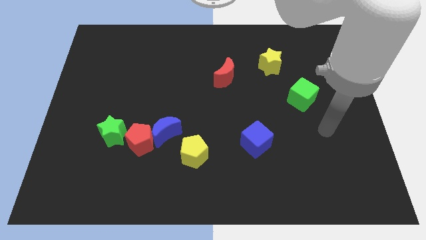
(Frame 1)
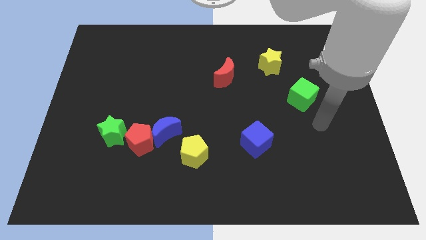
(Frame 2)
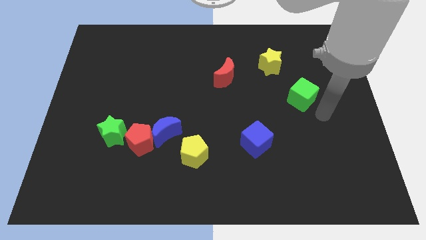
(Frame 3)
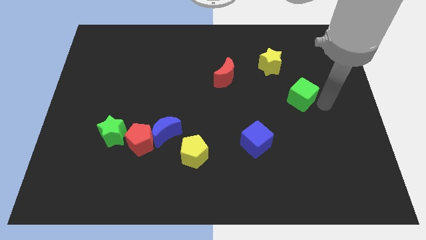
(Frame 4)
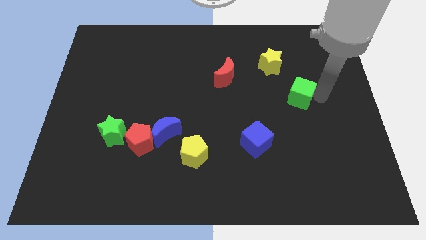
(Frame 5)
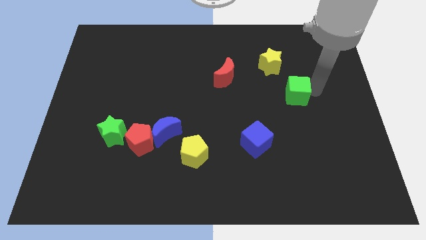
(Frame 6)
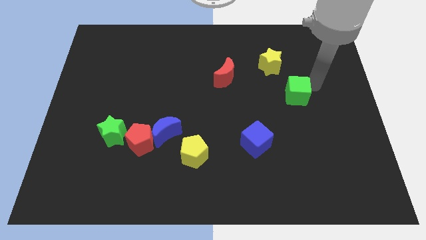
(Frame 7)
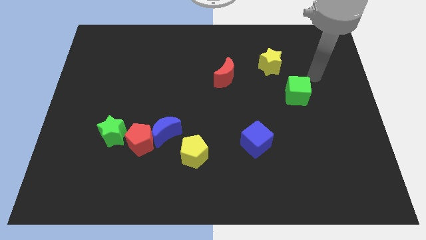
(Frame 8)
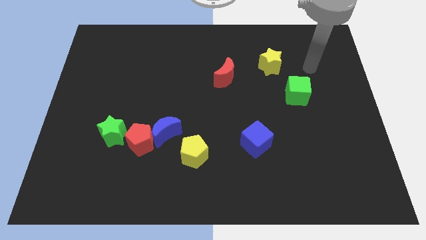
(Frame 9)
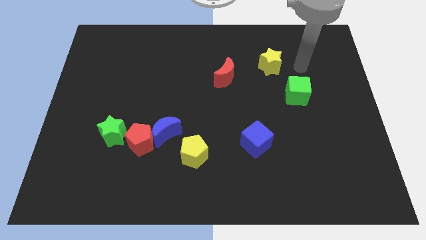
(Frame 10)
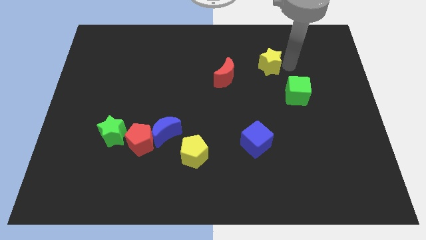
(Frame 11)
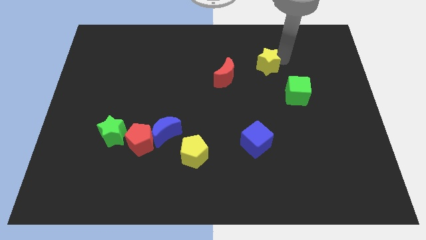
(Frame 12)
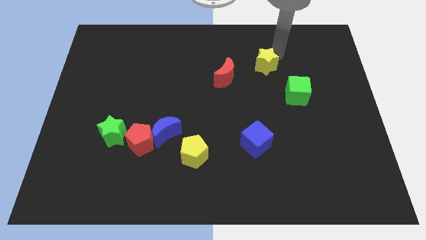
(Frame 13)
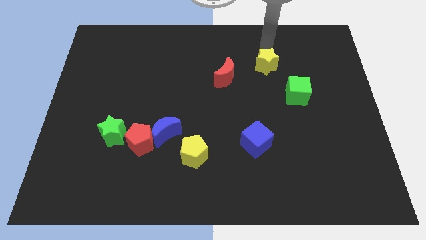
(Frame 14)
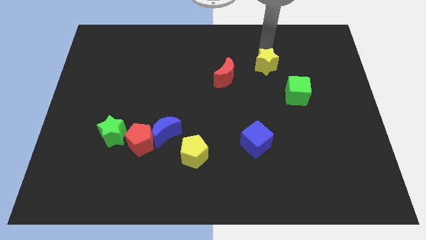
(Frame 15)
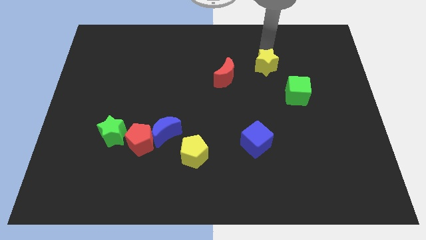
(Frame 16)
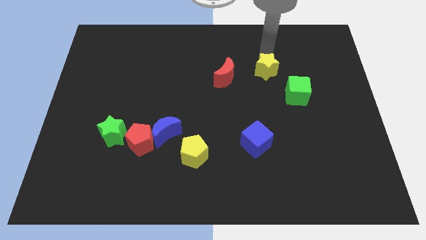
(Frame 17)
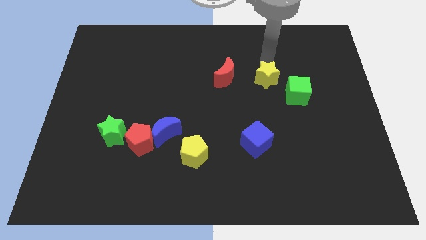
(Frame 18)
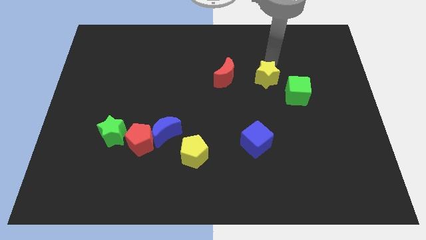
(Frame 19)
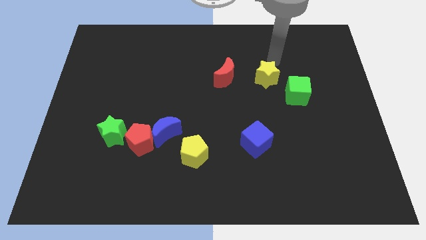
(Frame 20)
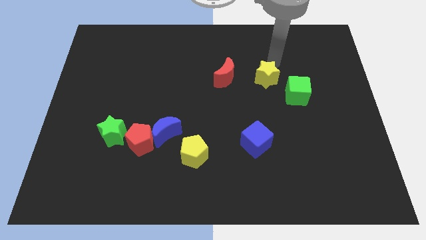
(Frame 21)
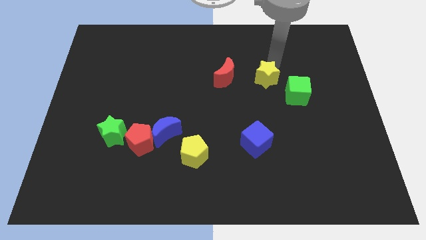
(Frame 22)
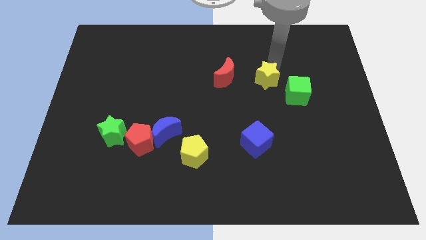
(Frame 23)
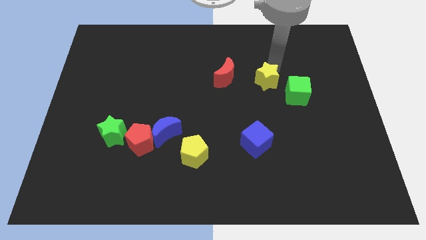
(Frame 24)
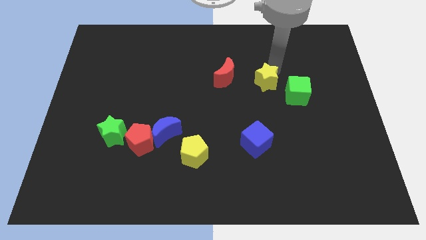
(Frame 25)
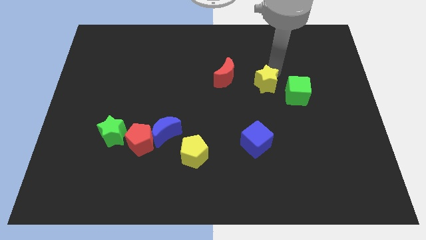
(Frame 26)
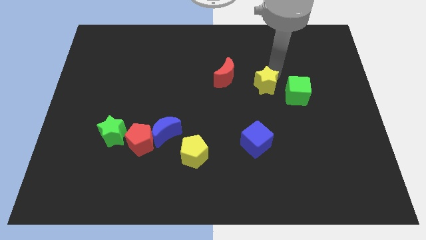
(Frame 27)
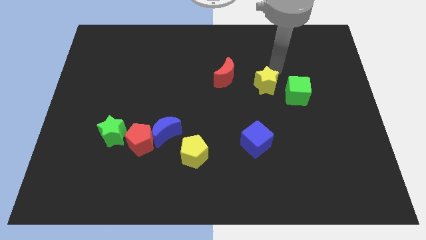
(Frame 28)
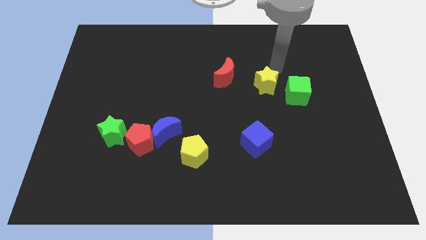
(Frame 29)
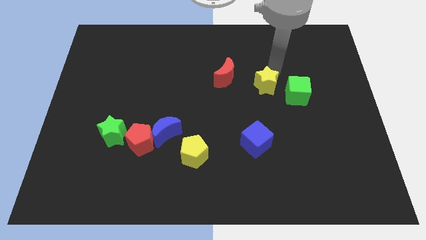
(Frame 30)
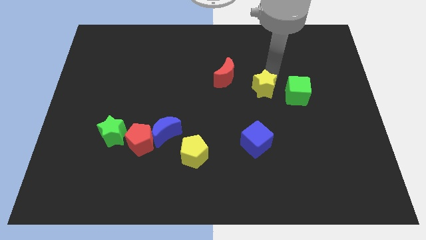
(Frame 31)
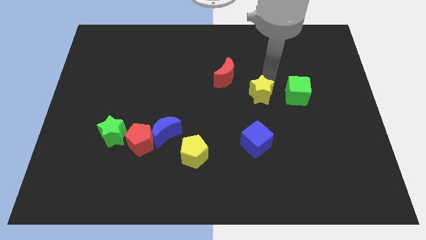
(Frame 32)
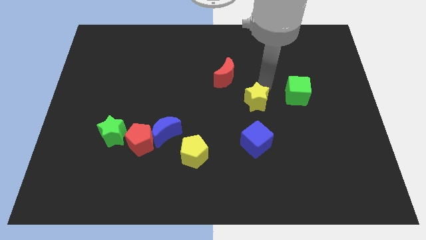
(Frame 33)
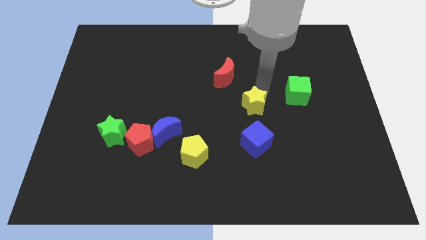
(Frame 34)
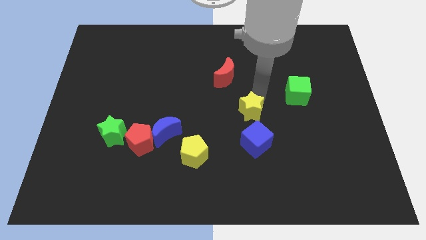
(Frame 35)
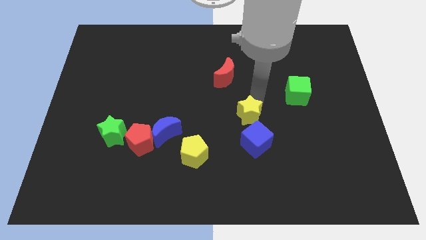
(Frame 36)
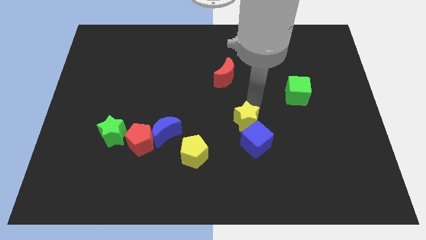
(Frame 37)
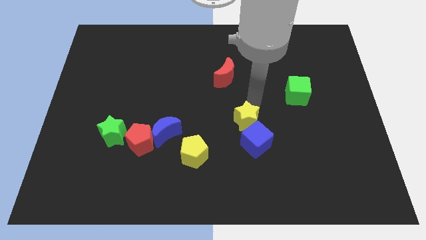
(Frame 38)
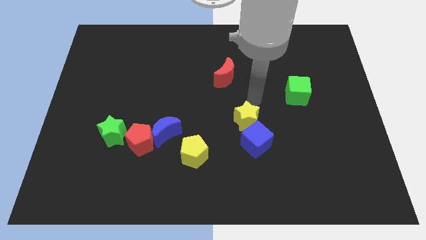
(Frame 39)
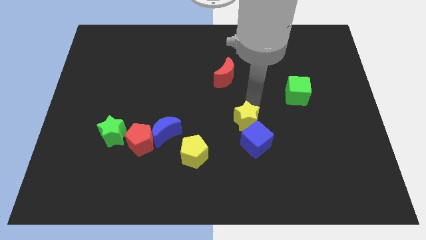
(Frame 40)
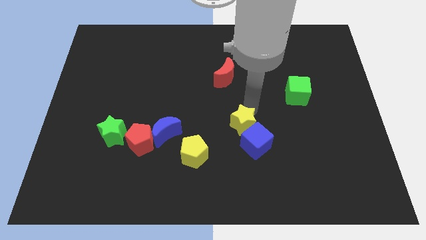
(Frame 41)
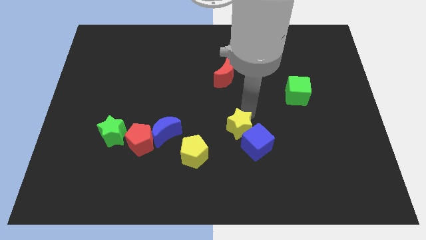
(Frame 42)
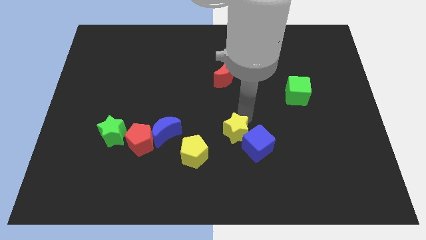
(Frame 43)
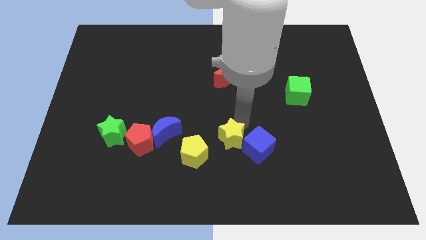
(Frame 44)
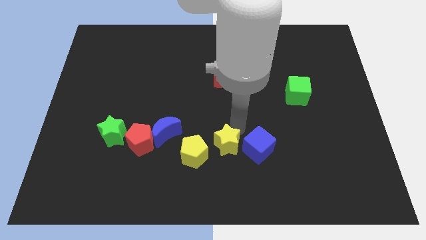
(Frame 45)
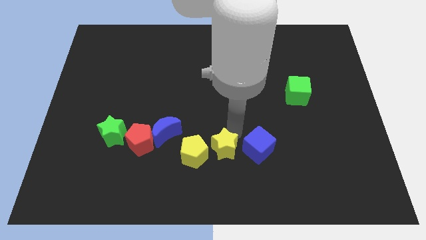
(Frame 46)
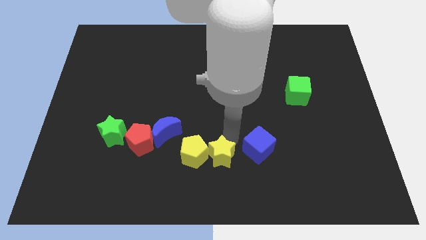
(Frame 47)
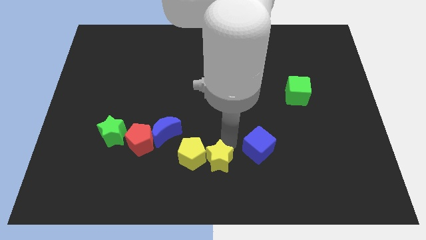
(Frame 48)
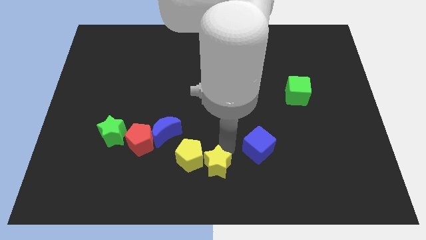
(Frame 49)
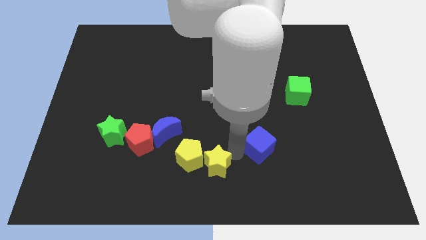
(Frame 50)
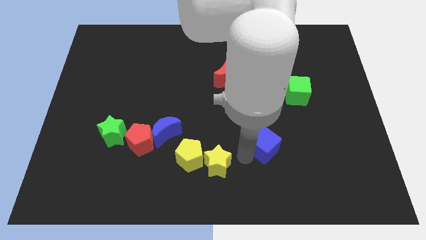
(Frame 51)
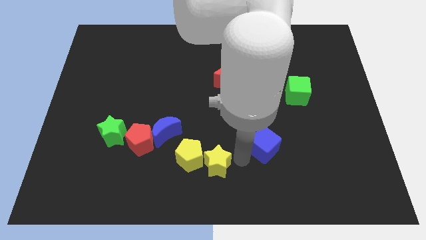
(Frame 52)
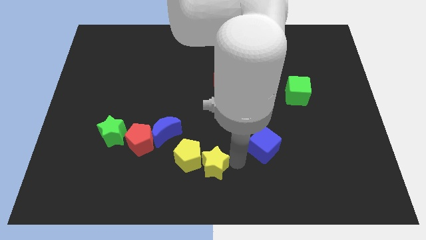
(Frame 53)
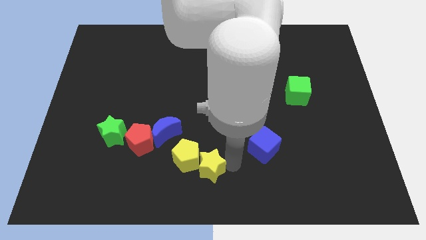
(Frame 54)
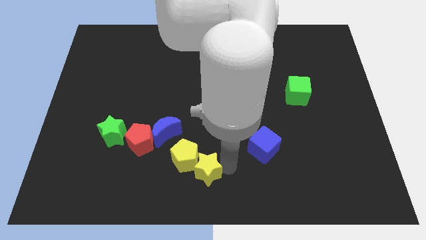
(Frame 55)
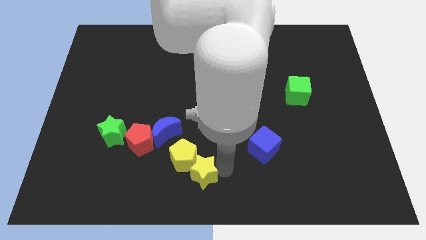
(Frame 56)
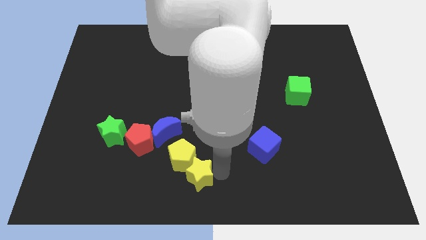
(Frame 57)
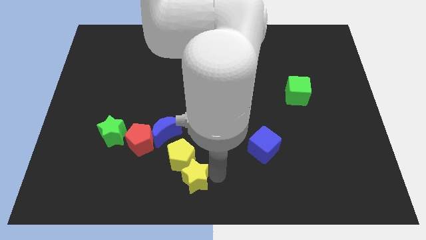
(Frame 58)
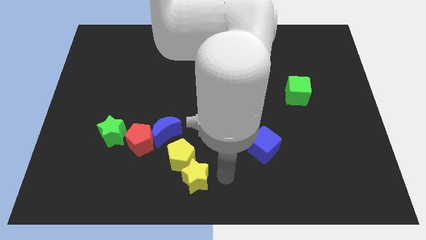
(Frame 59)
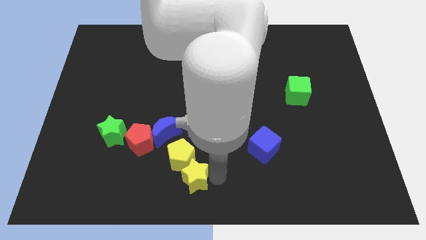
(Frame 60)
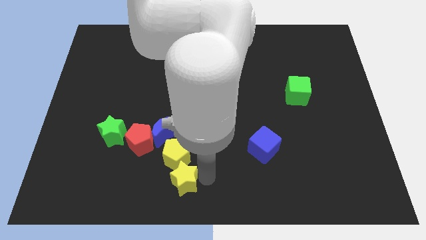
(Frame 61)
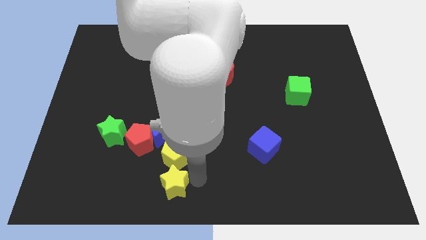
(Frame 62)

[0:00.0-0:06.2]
put the yellow star diagonally down and to the left of the yellow pentagon

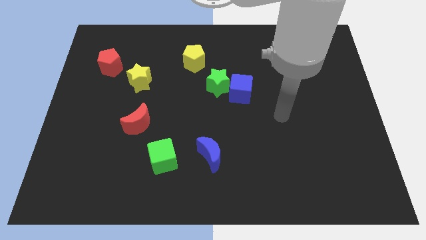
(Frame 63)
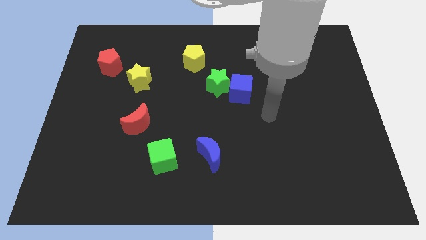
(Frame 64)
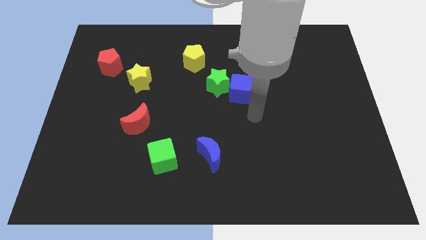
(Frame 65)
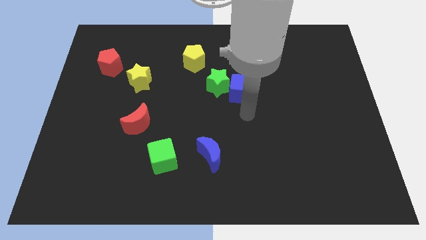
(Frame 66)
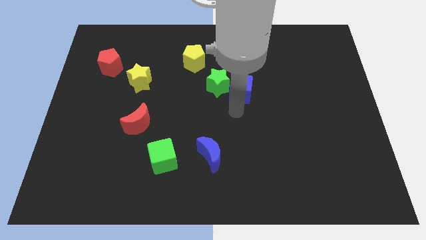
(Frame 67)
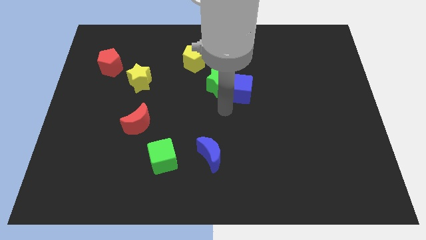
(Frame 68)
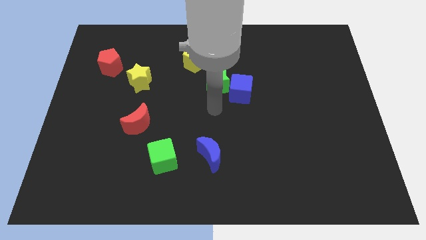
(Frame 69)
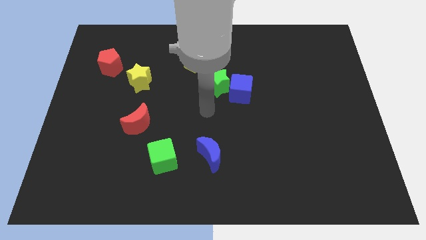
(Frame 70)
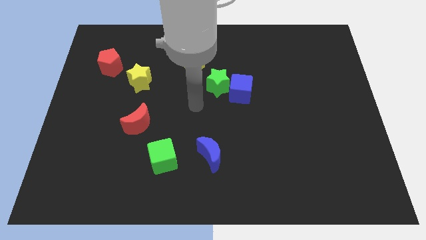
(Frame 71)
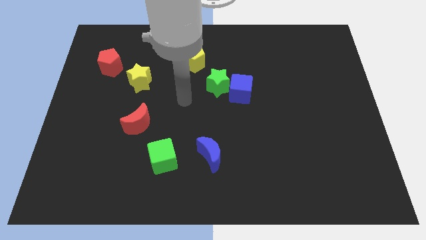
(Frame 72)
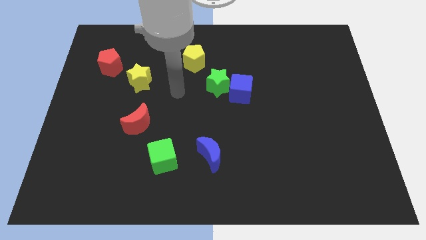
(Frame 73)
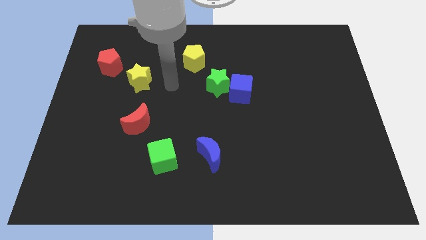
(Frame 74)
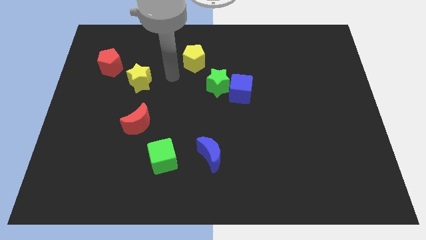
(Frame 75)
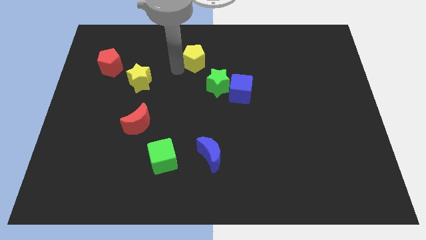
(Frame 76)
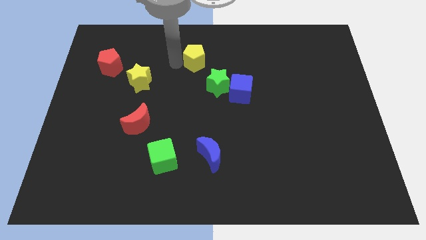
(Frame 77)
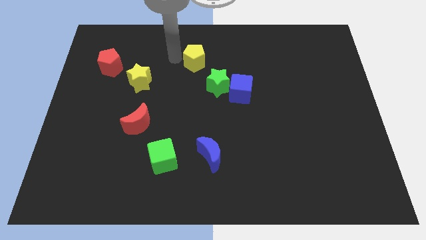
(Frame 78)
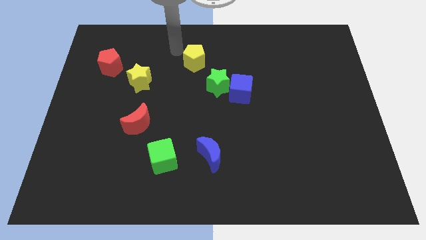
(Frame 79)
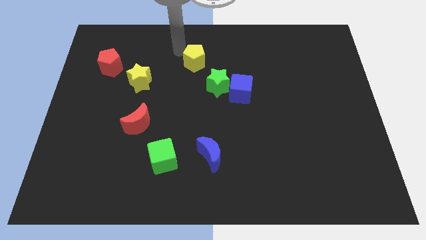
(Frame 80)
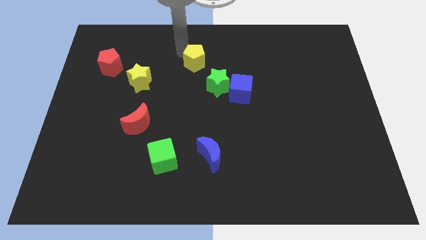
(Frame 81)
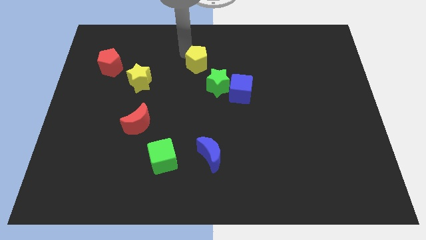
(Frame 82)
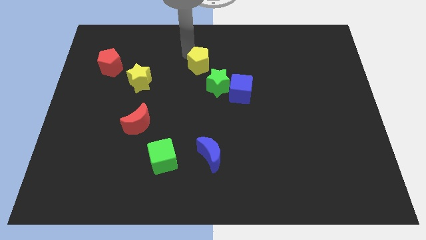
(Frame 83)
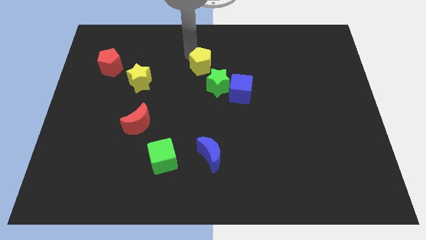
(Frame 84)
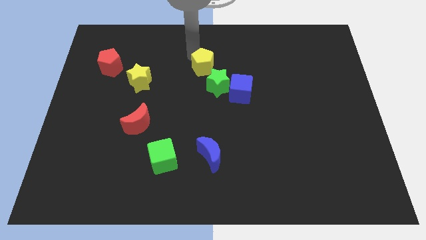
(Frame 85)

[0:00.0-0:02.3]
push the yellow pentagon to the top left of the blue cube
